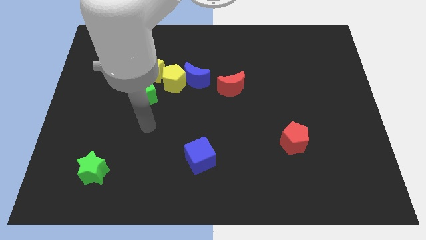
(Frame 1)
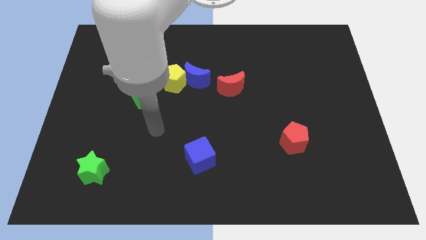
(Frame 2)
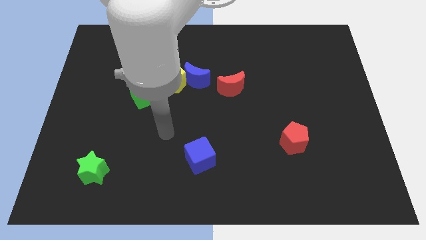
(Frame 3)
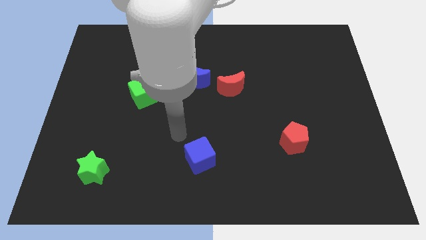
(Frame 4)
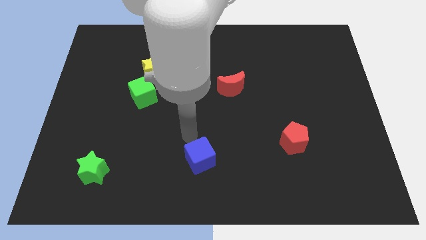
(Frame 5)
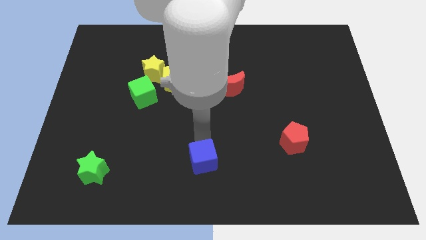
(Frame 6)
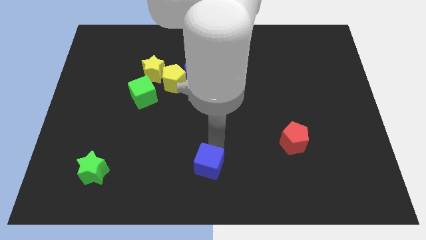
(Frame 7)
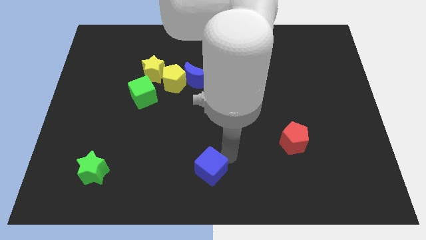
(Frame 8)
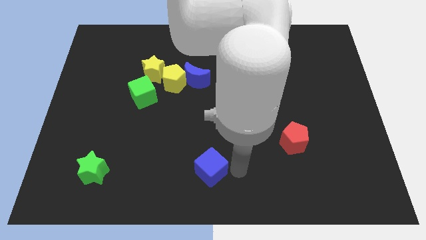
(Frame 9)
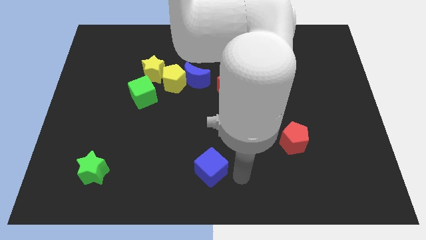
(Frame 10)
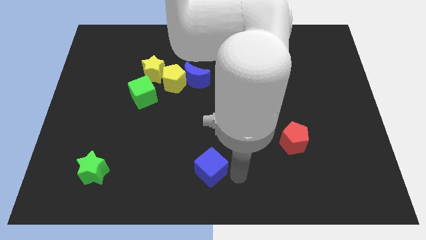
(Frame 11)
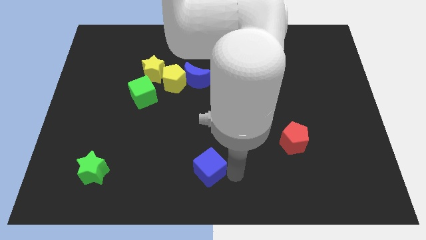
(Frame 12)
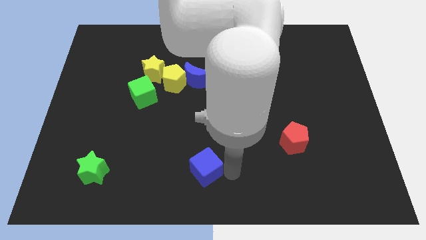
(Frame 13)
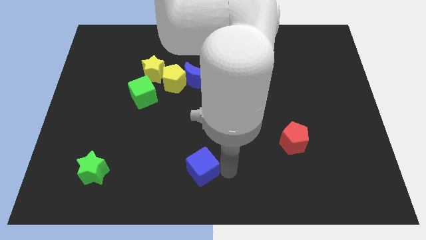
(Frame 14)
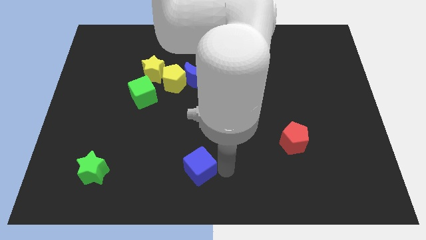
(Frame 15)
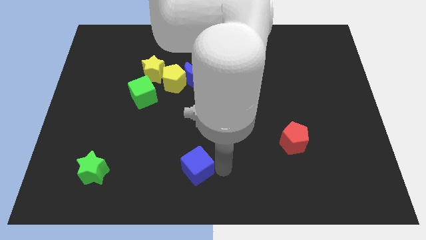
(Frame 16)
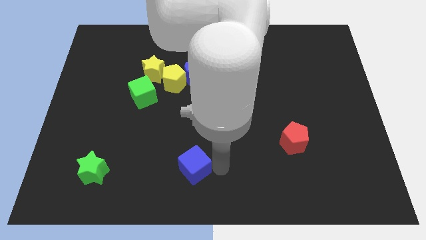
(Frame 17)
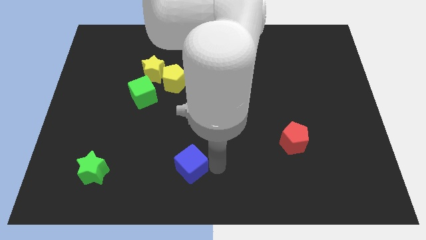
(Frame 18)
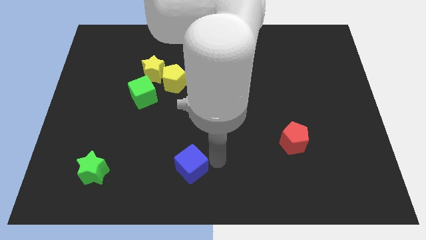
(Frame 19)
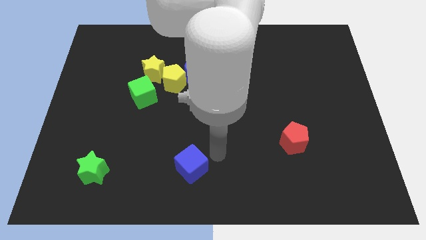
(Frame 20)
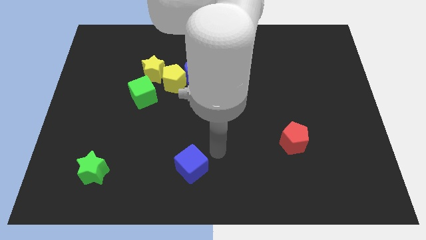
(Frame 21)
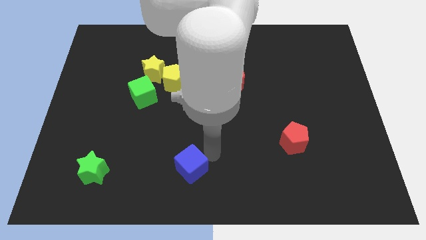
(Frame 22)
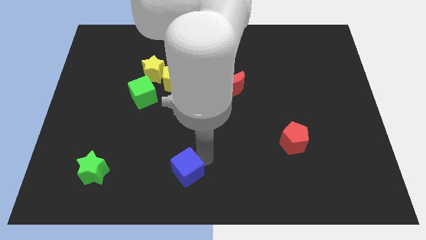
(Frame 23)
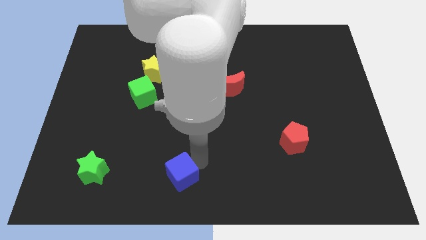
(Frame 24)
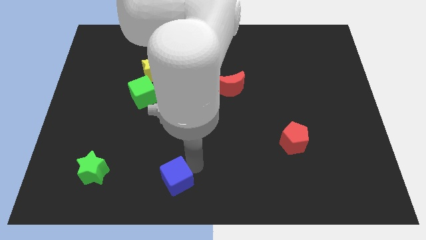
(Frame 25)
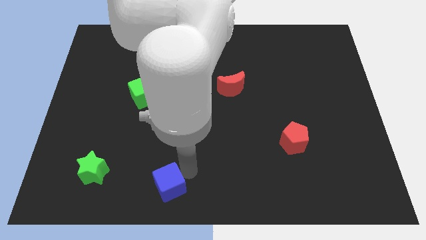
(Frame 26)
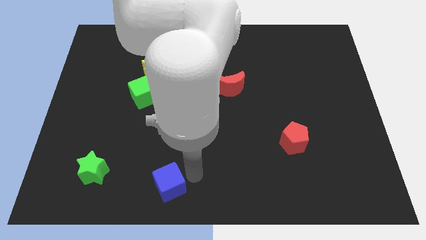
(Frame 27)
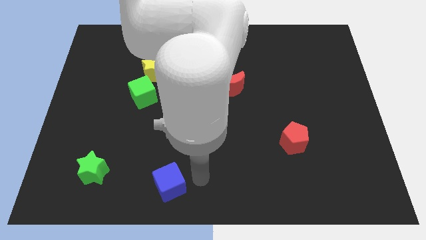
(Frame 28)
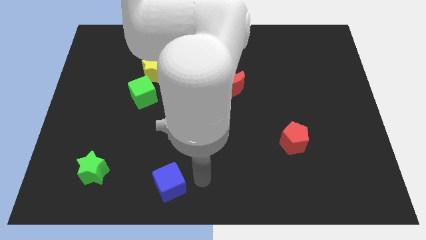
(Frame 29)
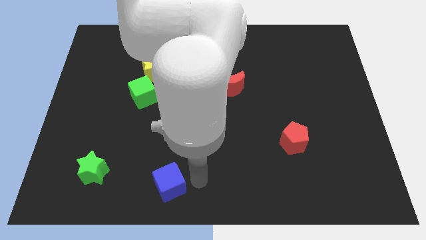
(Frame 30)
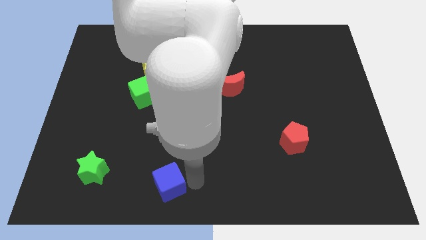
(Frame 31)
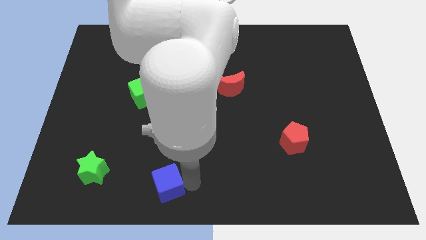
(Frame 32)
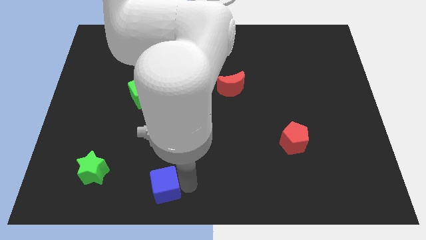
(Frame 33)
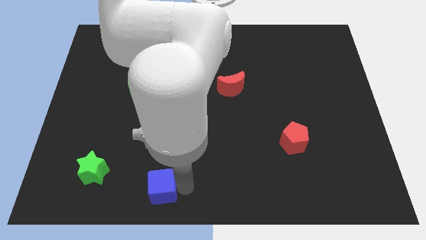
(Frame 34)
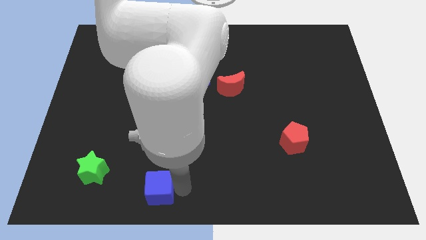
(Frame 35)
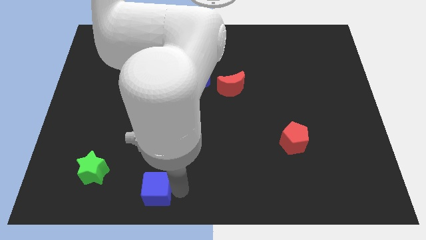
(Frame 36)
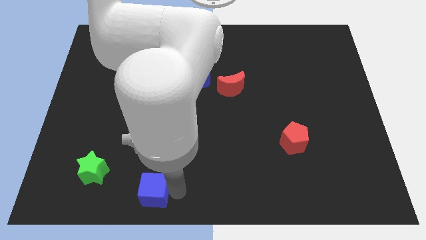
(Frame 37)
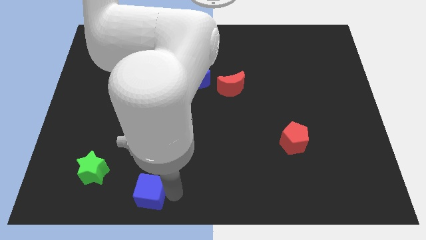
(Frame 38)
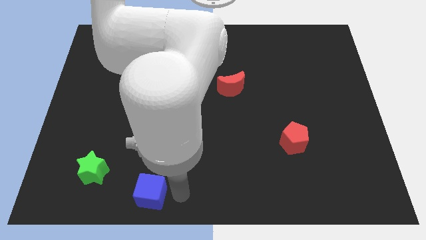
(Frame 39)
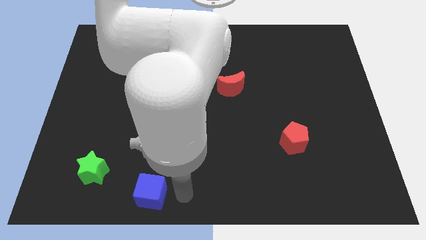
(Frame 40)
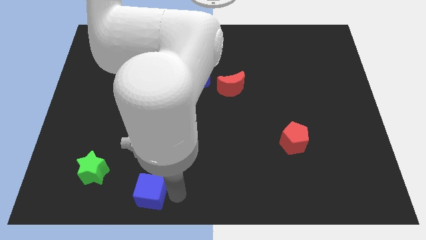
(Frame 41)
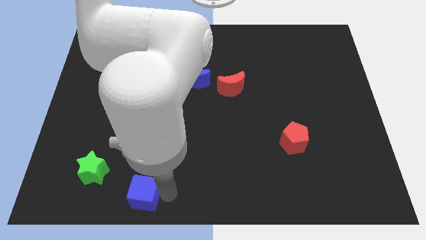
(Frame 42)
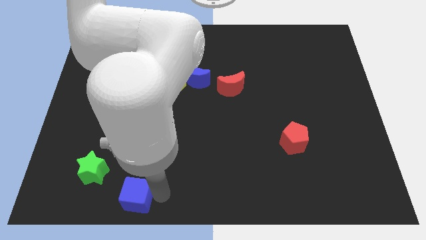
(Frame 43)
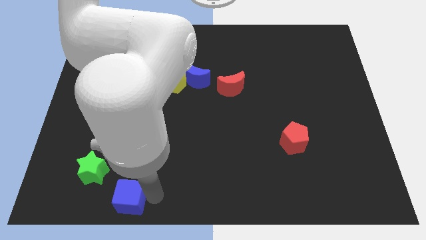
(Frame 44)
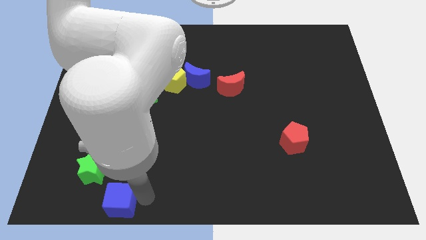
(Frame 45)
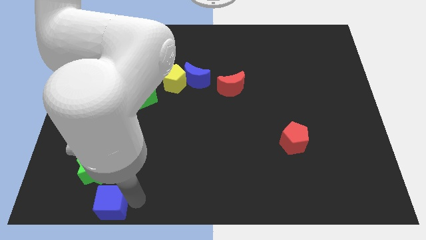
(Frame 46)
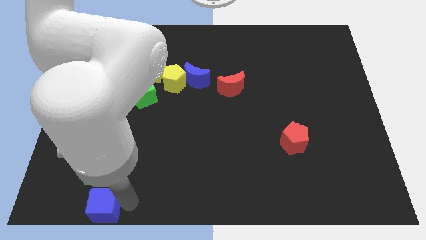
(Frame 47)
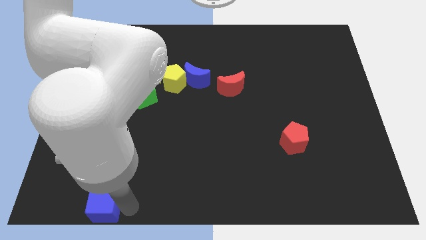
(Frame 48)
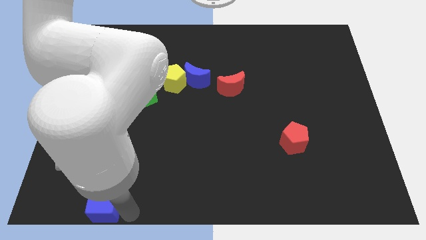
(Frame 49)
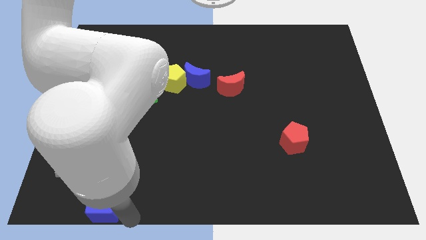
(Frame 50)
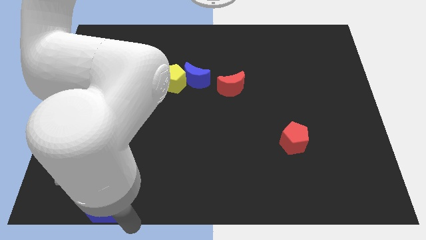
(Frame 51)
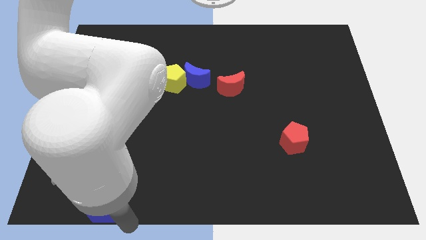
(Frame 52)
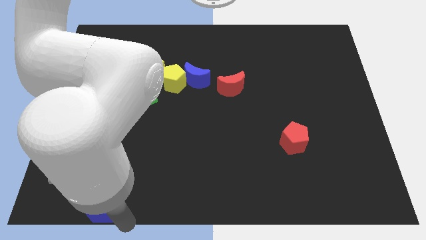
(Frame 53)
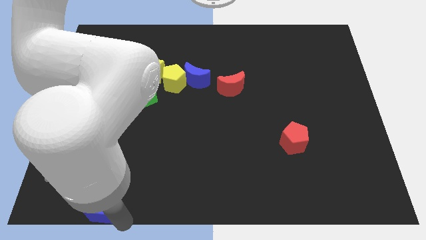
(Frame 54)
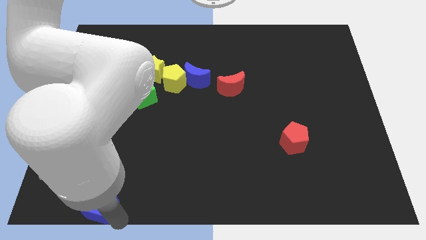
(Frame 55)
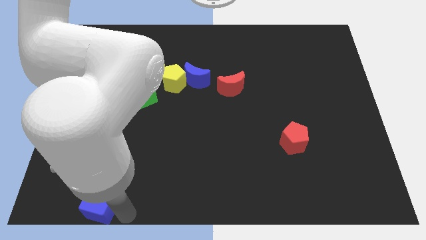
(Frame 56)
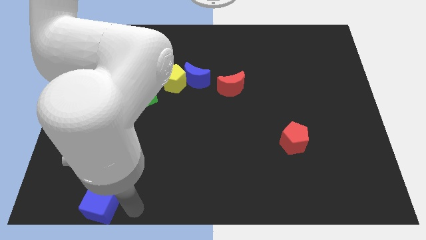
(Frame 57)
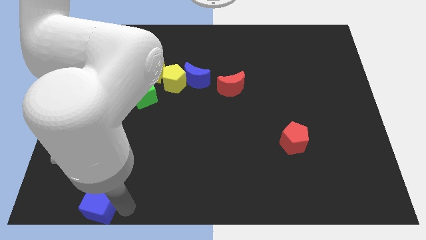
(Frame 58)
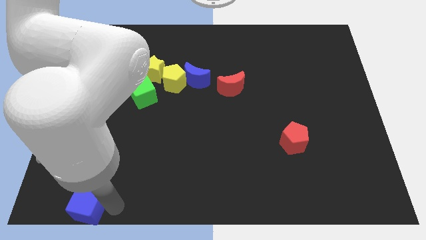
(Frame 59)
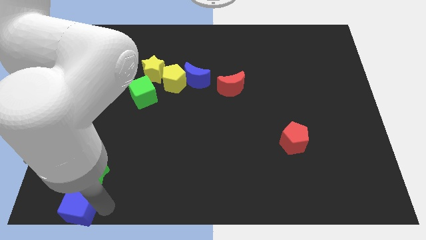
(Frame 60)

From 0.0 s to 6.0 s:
slide the blue cube to the bottom left of the board
